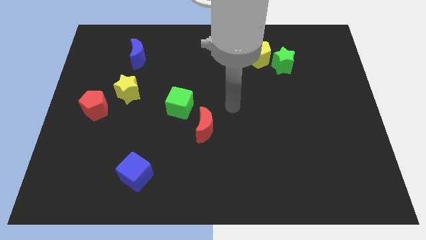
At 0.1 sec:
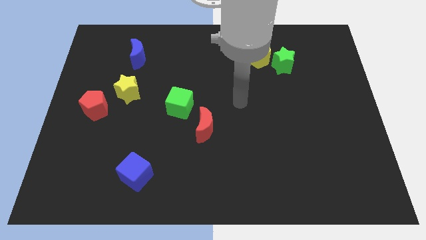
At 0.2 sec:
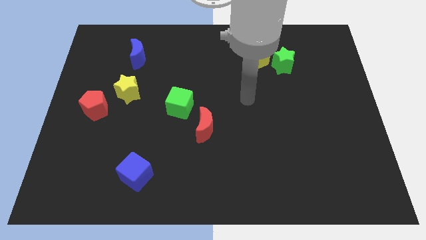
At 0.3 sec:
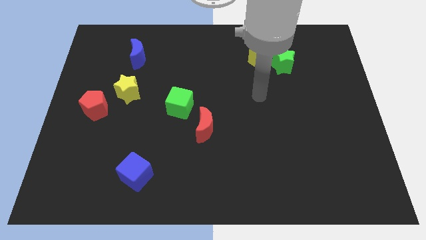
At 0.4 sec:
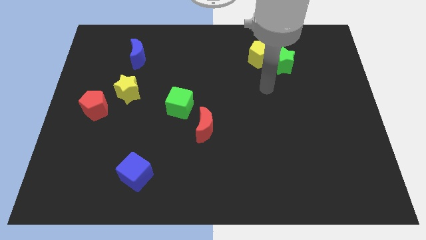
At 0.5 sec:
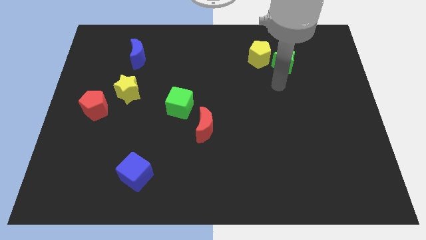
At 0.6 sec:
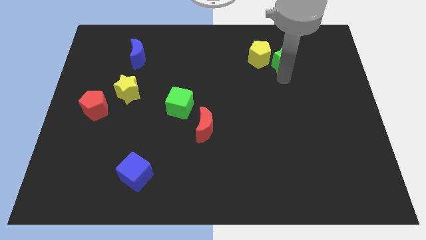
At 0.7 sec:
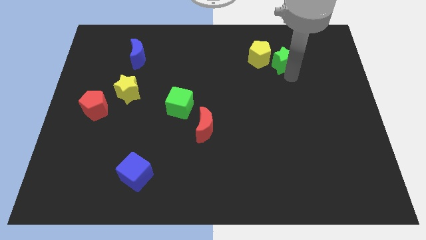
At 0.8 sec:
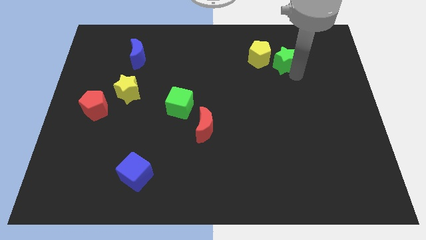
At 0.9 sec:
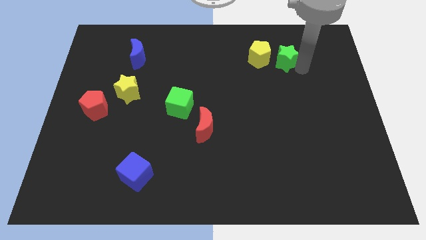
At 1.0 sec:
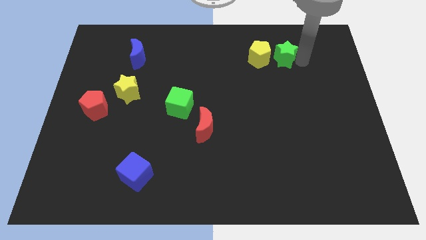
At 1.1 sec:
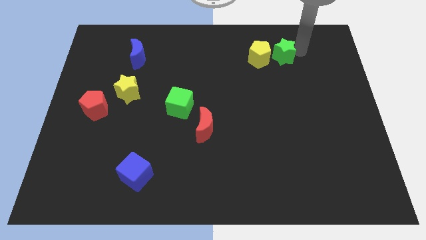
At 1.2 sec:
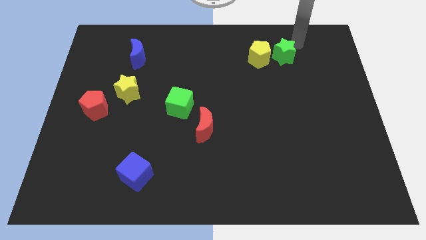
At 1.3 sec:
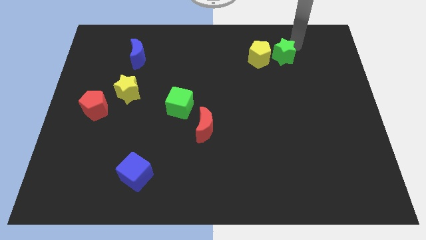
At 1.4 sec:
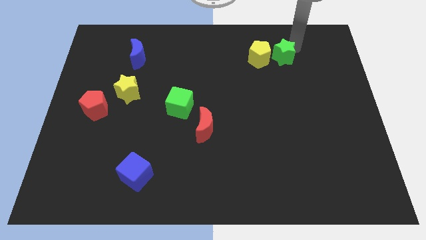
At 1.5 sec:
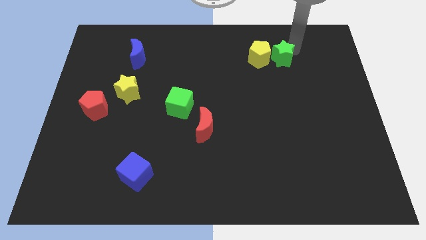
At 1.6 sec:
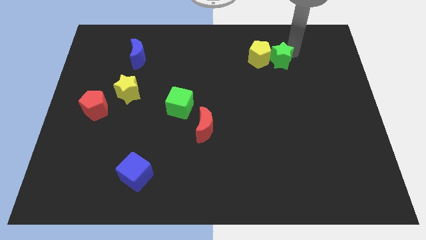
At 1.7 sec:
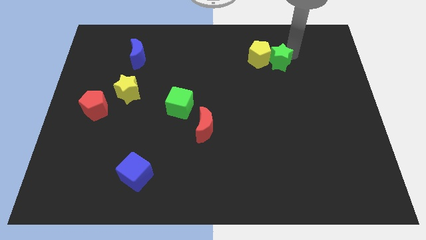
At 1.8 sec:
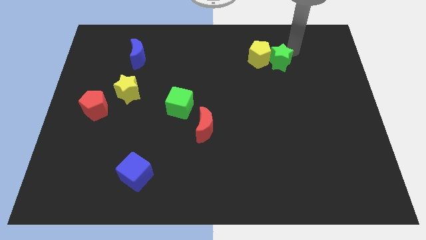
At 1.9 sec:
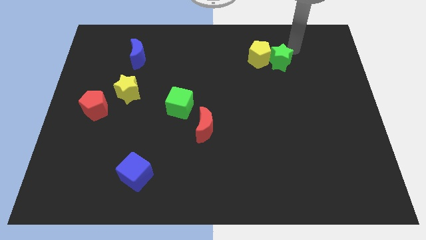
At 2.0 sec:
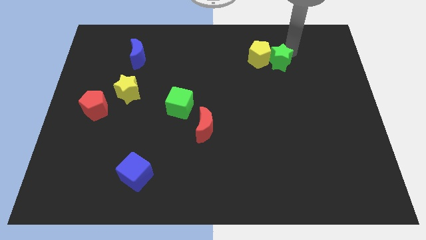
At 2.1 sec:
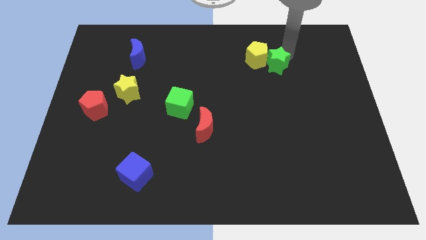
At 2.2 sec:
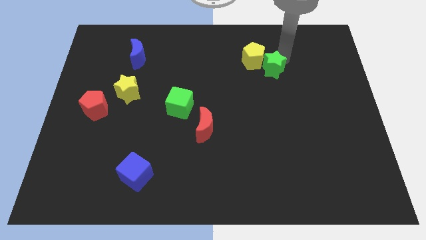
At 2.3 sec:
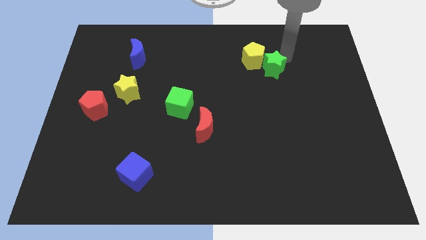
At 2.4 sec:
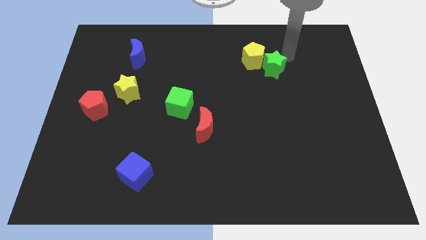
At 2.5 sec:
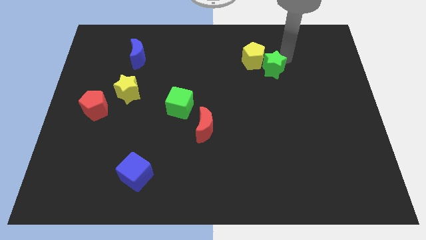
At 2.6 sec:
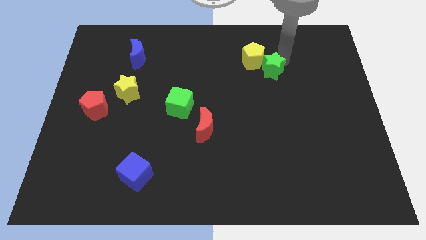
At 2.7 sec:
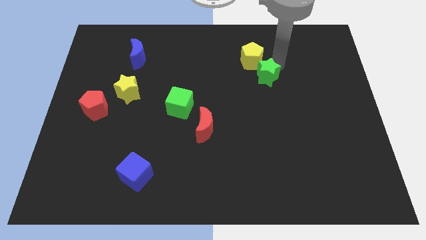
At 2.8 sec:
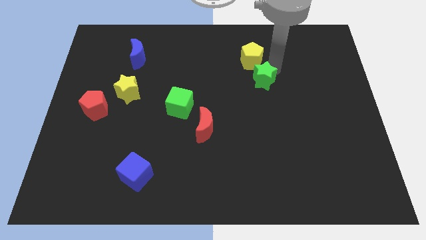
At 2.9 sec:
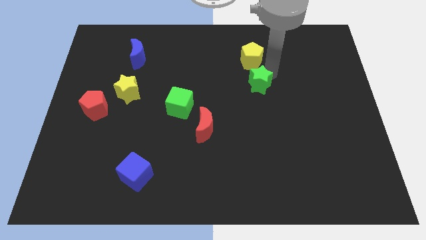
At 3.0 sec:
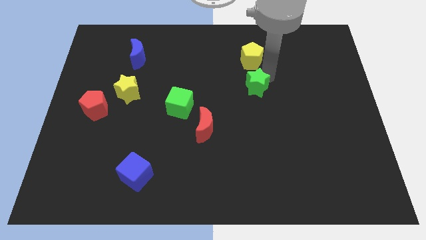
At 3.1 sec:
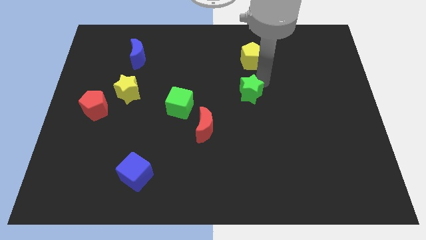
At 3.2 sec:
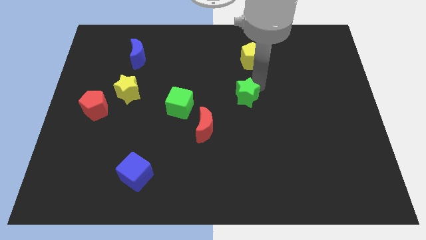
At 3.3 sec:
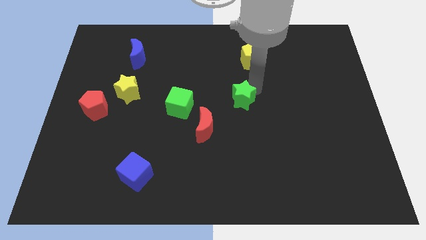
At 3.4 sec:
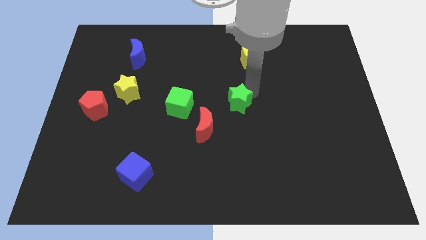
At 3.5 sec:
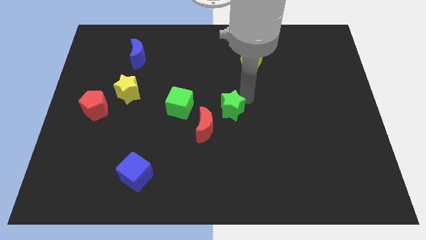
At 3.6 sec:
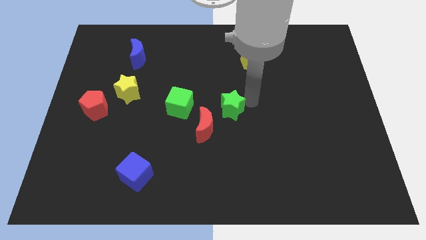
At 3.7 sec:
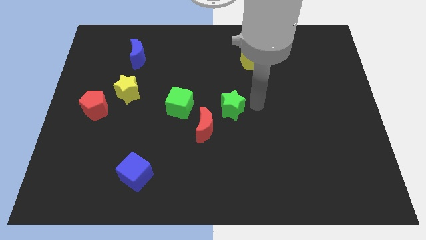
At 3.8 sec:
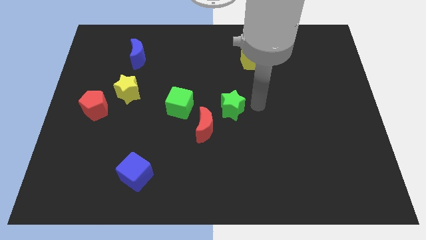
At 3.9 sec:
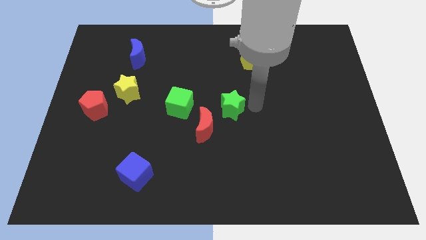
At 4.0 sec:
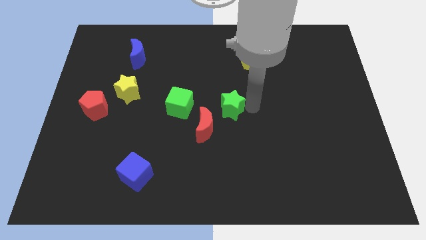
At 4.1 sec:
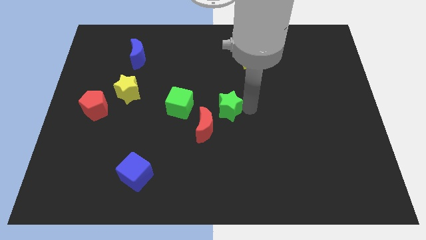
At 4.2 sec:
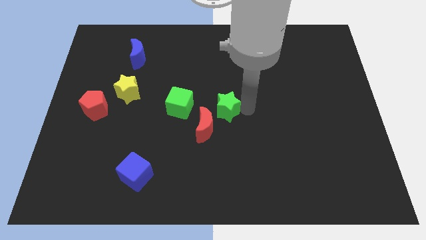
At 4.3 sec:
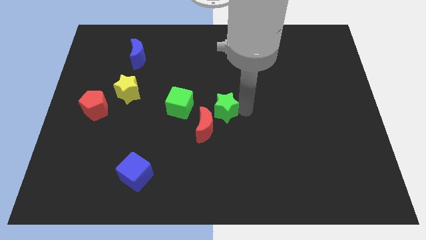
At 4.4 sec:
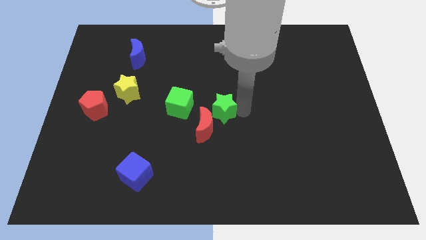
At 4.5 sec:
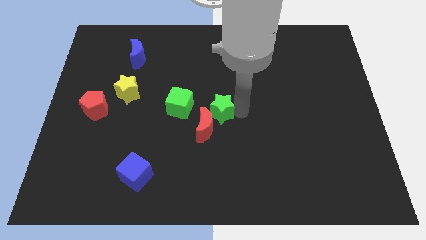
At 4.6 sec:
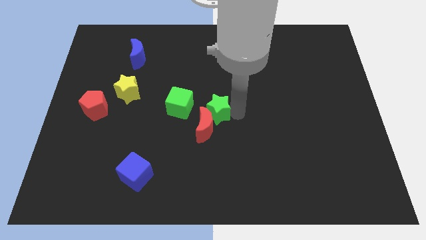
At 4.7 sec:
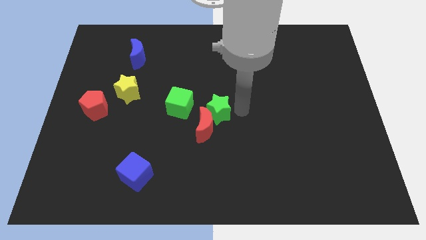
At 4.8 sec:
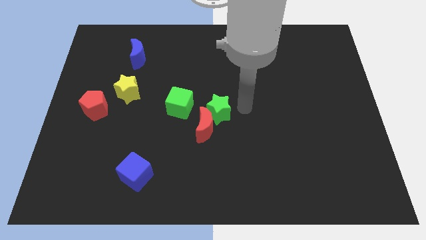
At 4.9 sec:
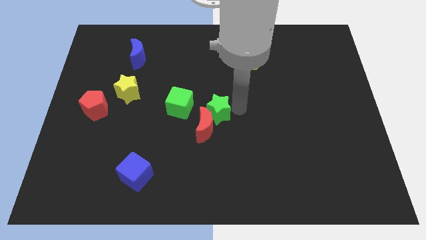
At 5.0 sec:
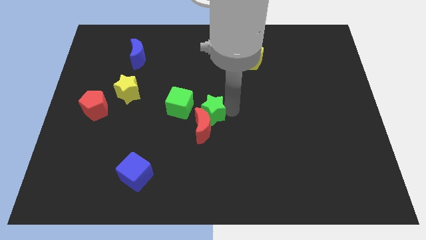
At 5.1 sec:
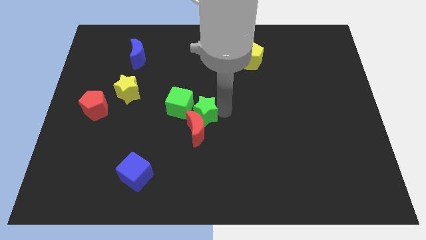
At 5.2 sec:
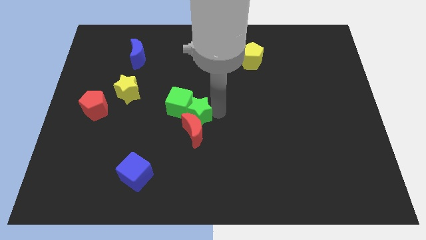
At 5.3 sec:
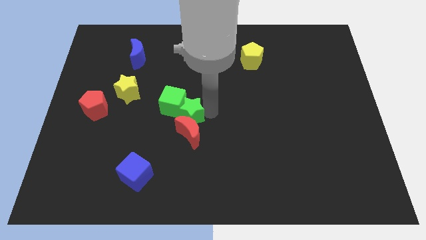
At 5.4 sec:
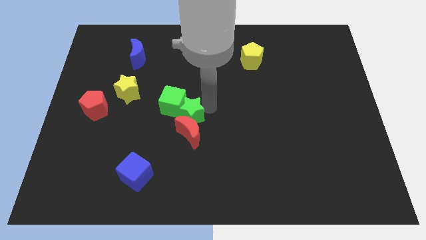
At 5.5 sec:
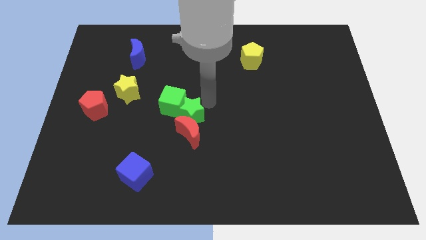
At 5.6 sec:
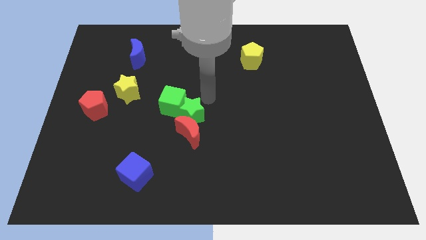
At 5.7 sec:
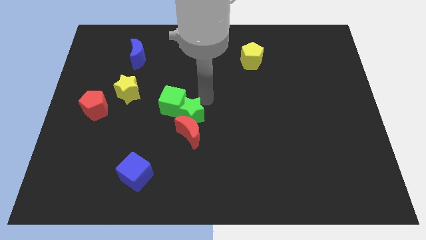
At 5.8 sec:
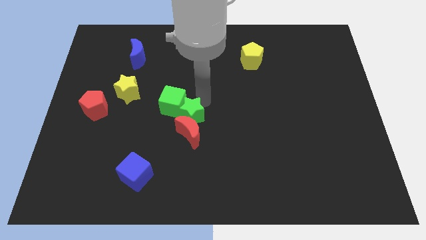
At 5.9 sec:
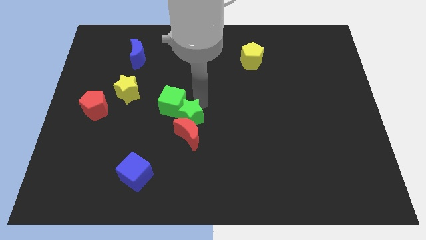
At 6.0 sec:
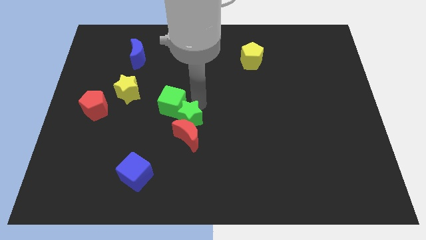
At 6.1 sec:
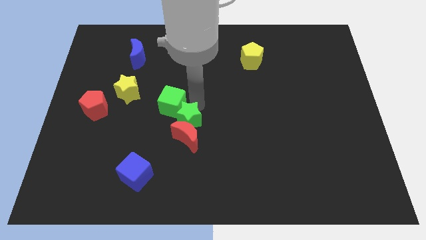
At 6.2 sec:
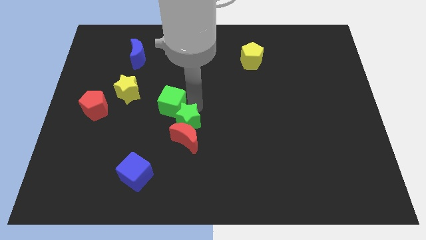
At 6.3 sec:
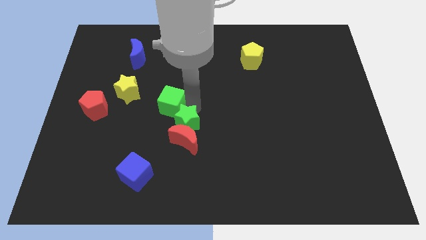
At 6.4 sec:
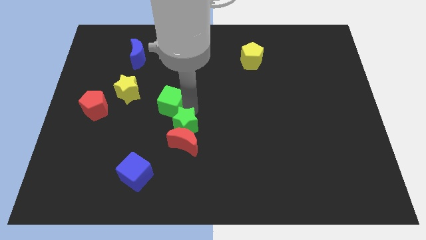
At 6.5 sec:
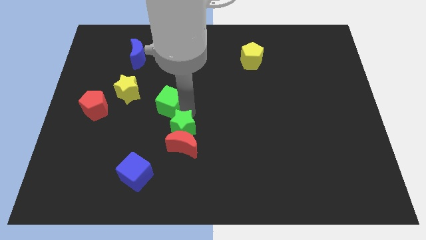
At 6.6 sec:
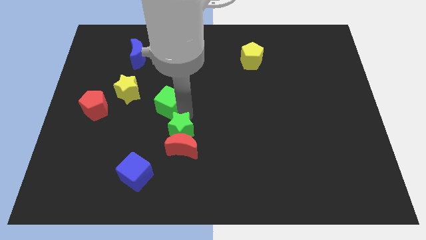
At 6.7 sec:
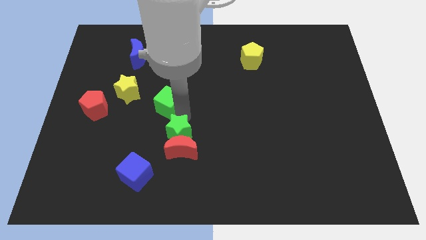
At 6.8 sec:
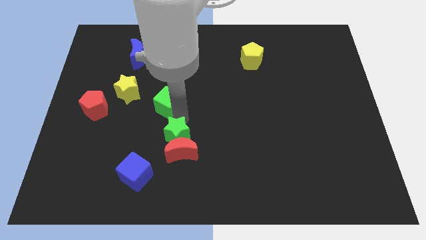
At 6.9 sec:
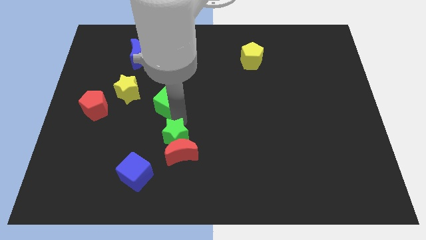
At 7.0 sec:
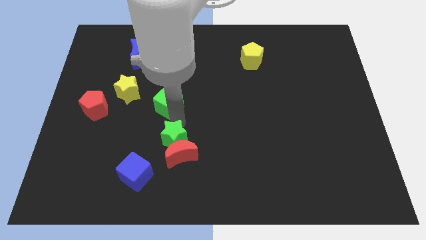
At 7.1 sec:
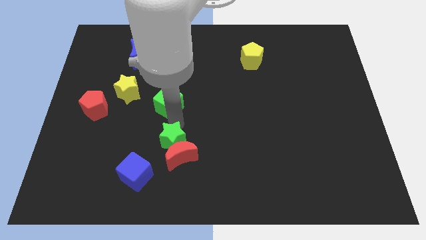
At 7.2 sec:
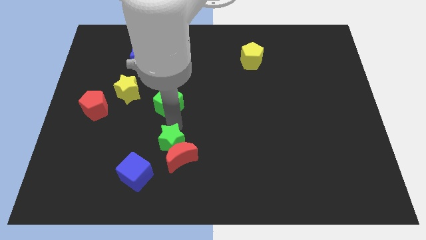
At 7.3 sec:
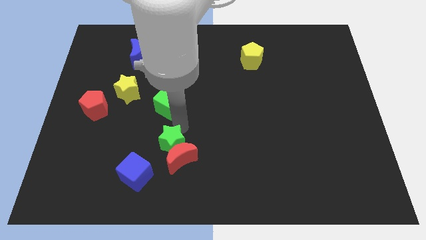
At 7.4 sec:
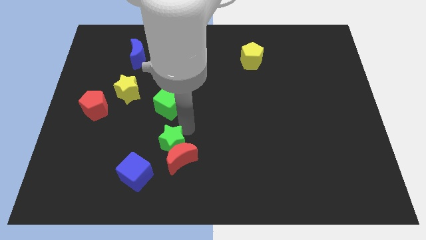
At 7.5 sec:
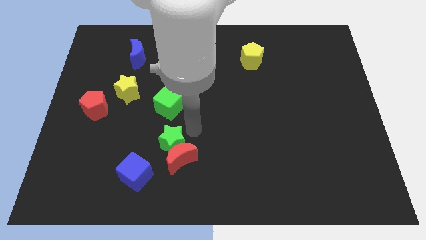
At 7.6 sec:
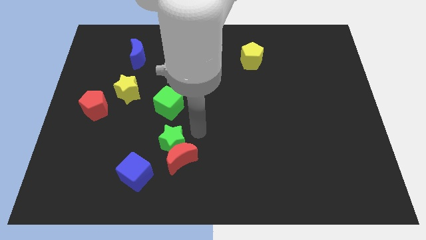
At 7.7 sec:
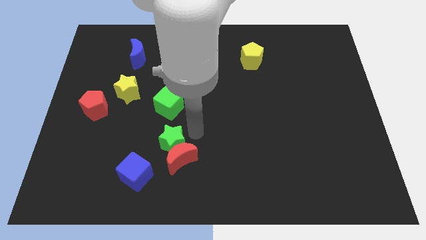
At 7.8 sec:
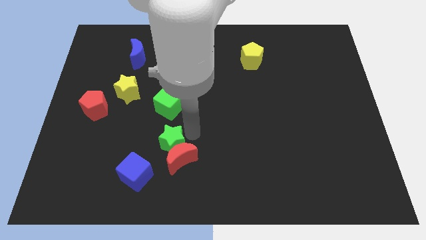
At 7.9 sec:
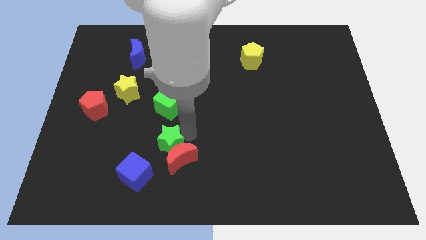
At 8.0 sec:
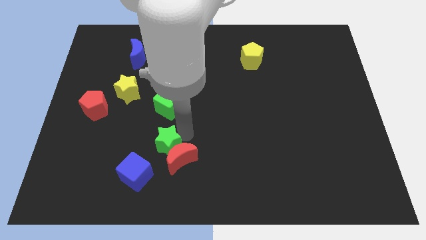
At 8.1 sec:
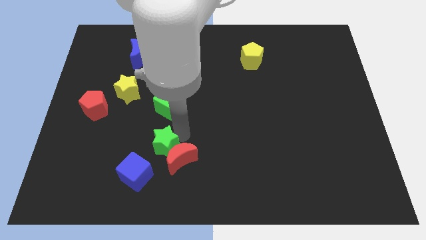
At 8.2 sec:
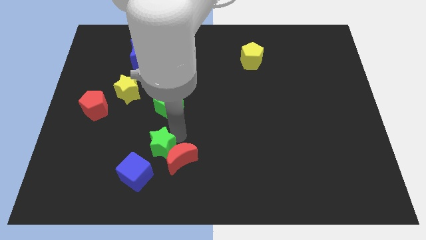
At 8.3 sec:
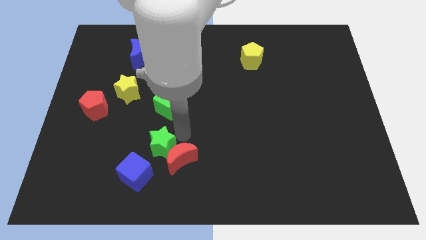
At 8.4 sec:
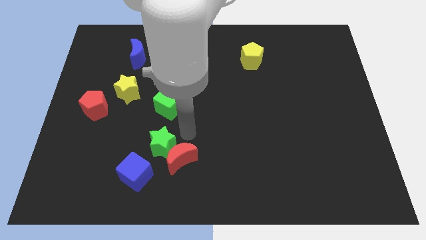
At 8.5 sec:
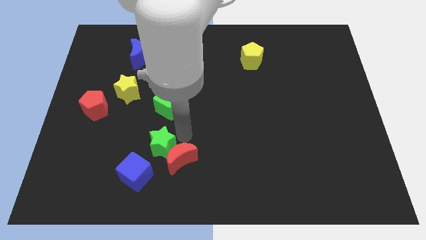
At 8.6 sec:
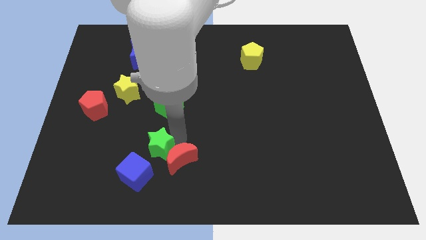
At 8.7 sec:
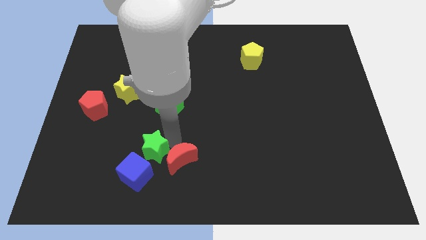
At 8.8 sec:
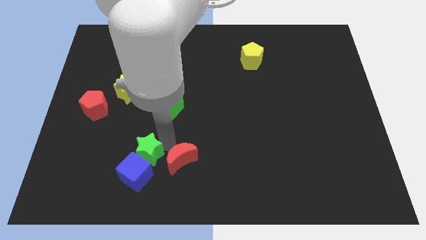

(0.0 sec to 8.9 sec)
put the green star towards the blue cube
